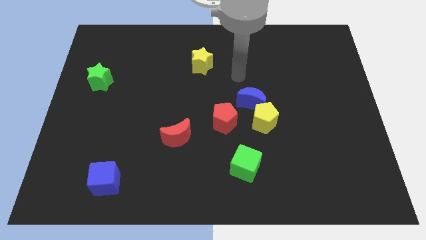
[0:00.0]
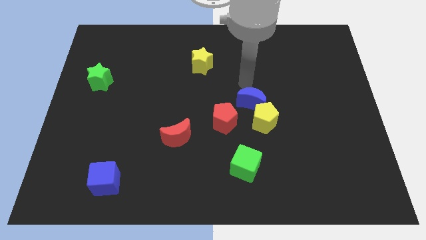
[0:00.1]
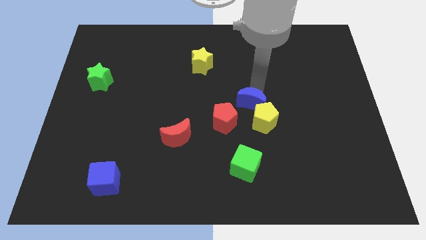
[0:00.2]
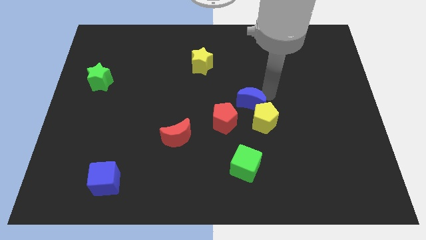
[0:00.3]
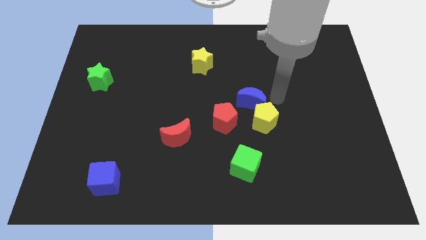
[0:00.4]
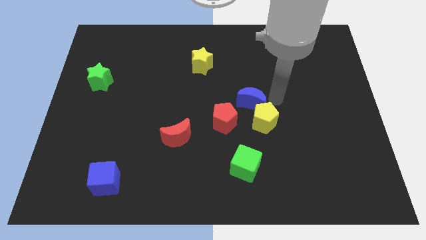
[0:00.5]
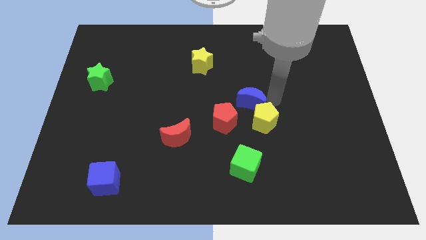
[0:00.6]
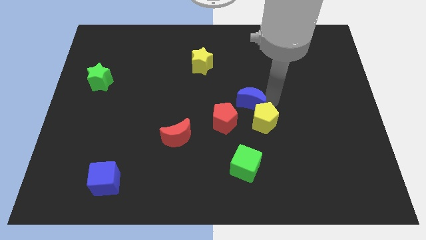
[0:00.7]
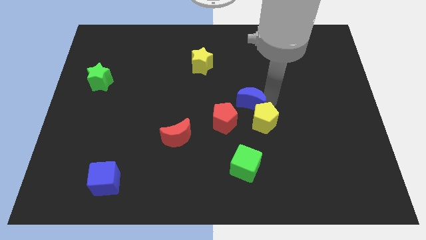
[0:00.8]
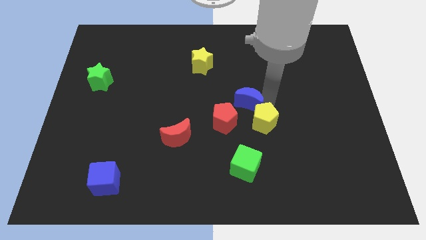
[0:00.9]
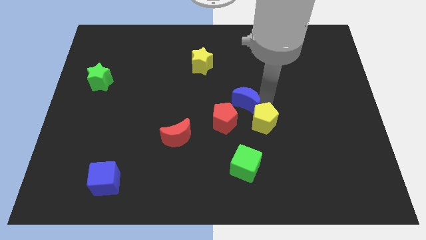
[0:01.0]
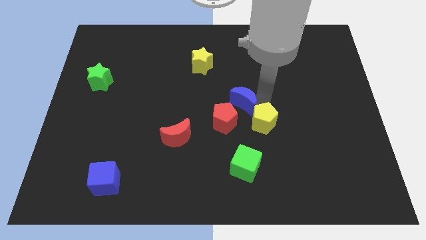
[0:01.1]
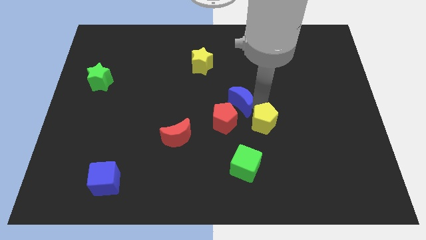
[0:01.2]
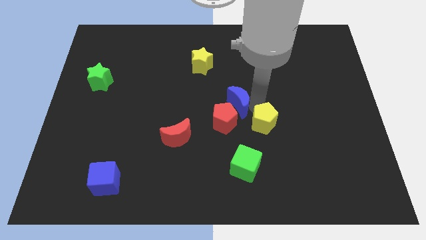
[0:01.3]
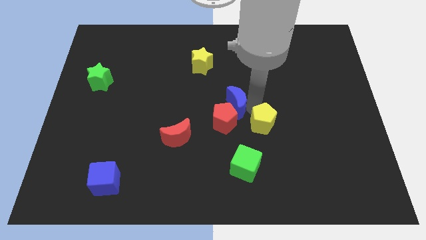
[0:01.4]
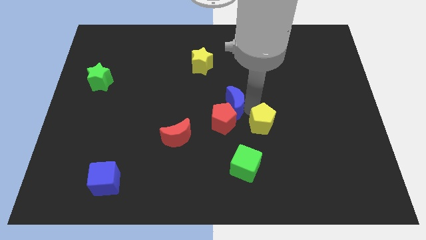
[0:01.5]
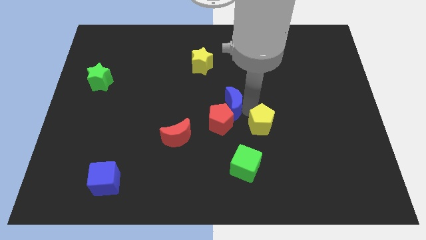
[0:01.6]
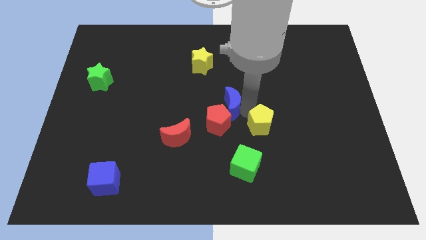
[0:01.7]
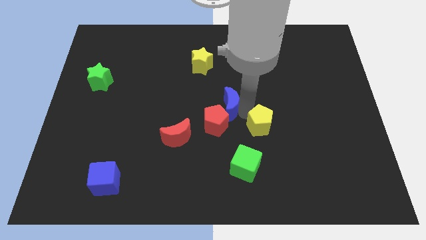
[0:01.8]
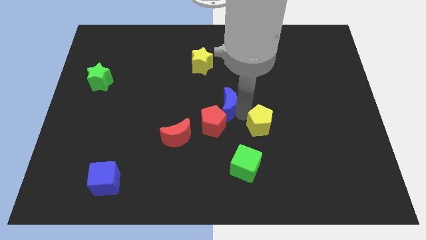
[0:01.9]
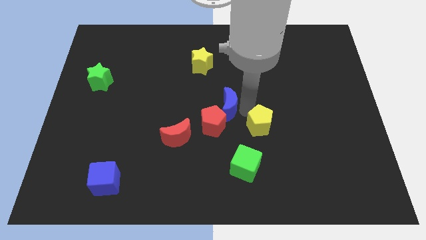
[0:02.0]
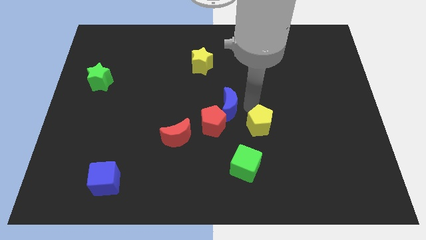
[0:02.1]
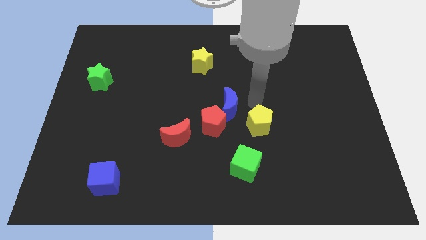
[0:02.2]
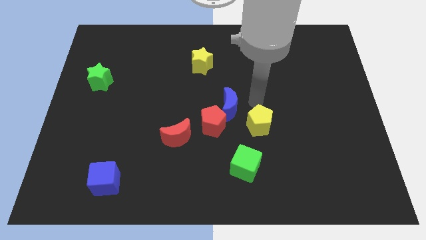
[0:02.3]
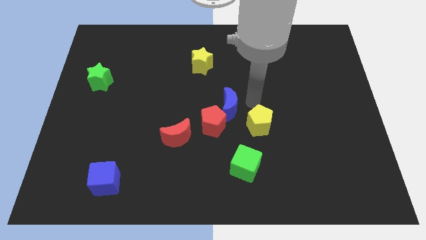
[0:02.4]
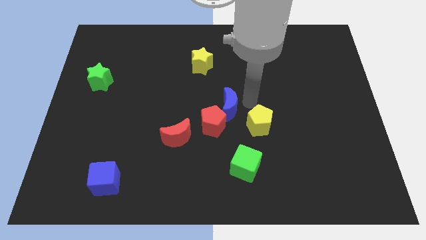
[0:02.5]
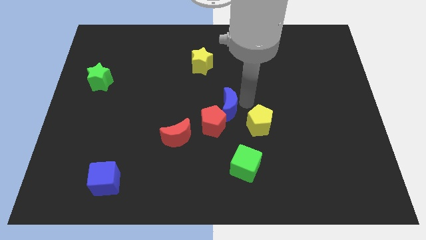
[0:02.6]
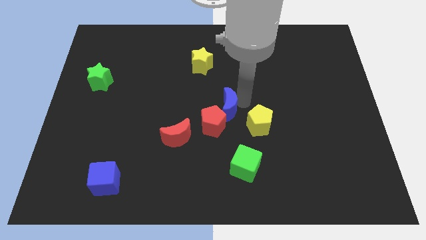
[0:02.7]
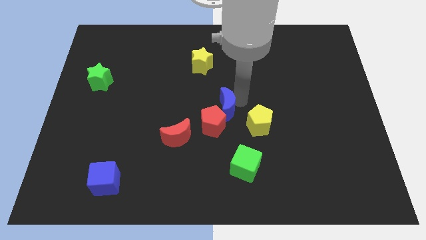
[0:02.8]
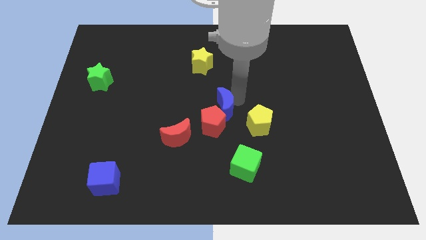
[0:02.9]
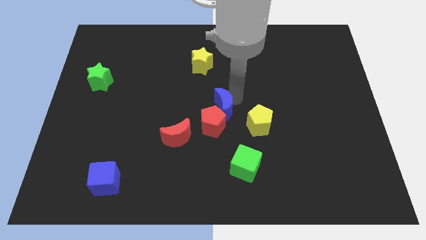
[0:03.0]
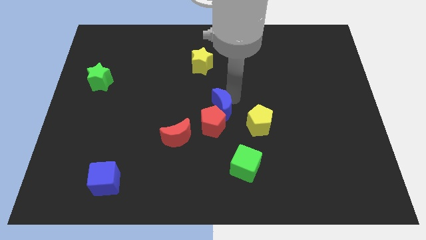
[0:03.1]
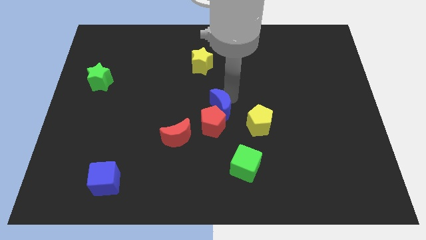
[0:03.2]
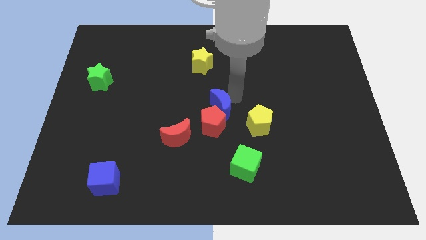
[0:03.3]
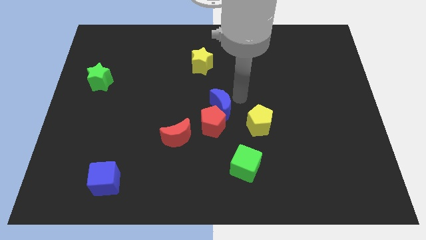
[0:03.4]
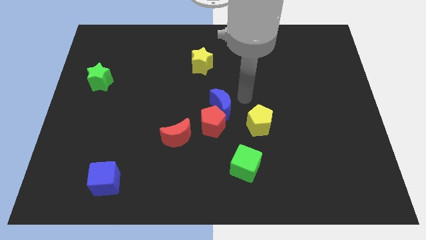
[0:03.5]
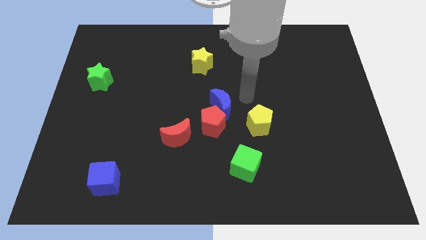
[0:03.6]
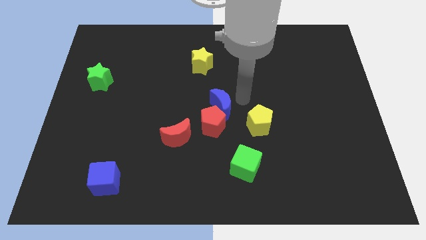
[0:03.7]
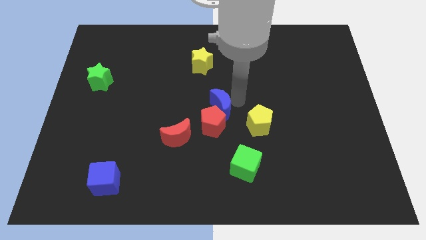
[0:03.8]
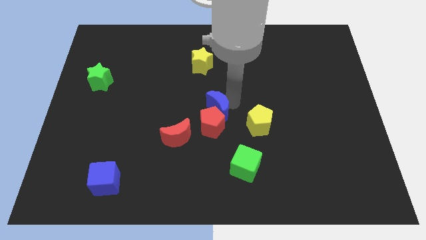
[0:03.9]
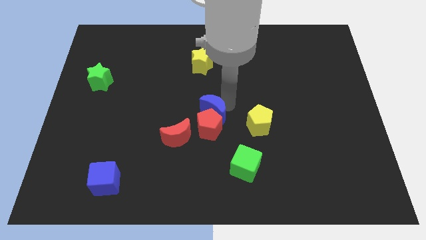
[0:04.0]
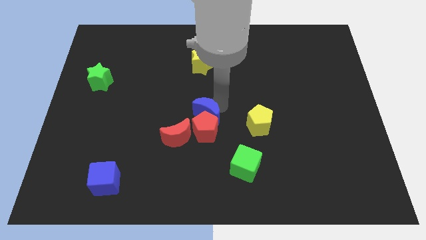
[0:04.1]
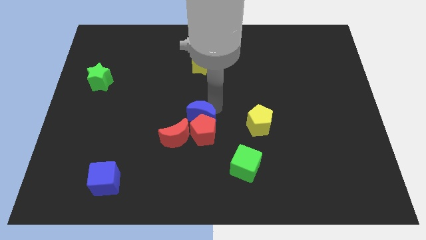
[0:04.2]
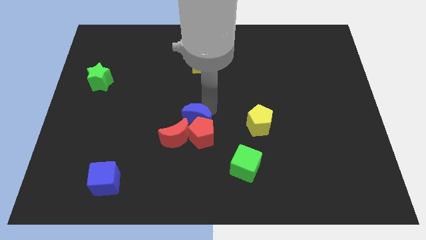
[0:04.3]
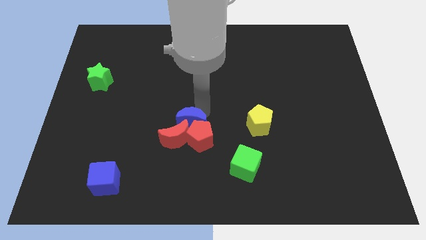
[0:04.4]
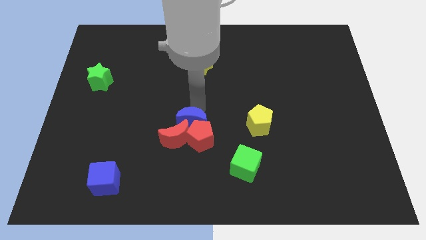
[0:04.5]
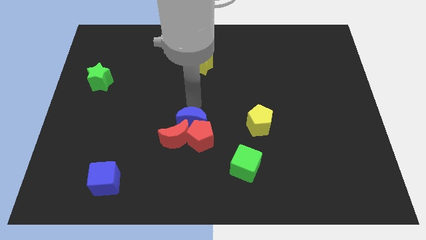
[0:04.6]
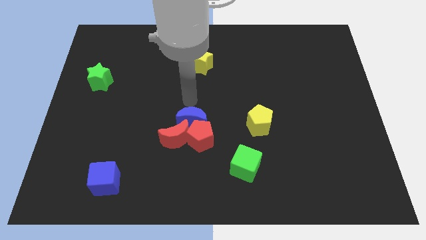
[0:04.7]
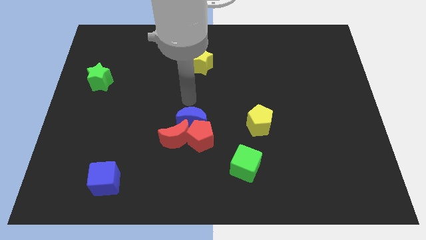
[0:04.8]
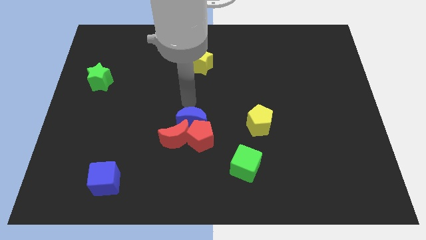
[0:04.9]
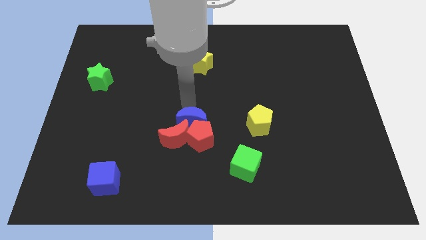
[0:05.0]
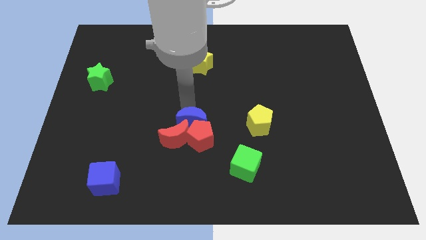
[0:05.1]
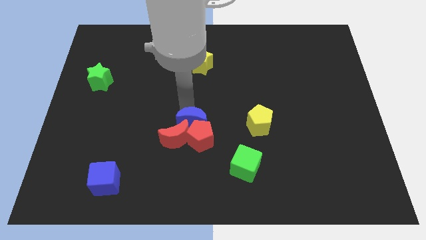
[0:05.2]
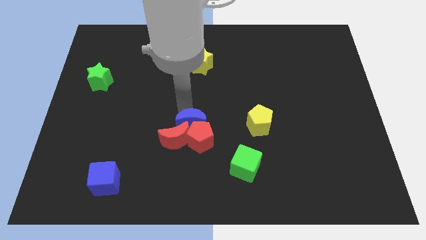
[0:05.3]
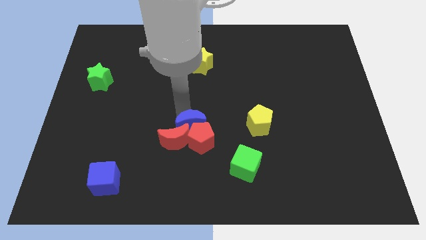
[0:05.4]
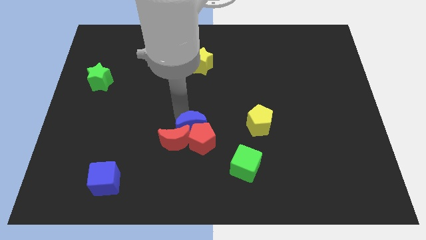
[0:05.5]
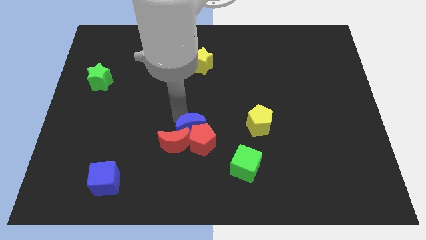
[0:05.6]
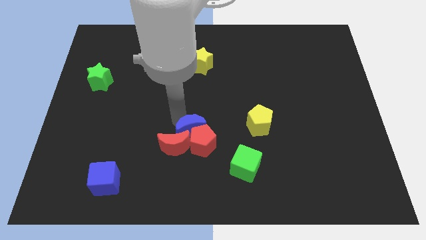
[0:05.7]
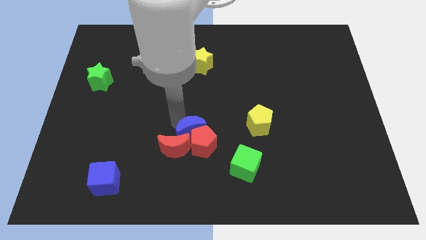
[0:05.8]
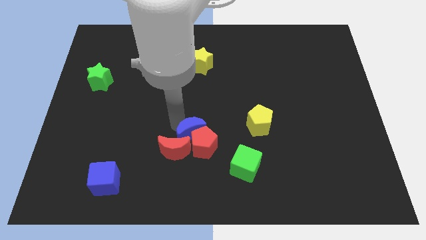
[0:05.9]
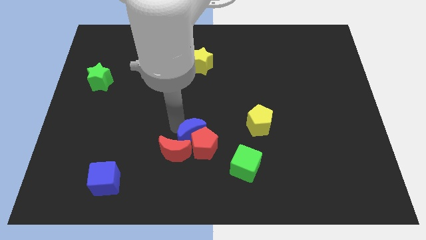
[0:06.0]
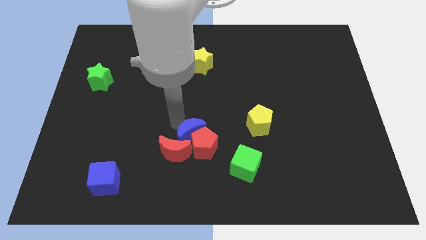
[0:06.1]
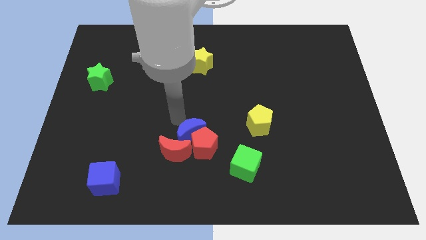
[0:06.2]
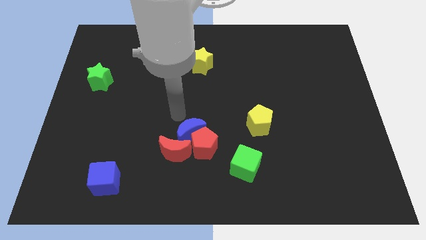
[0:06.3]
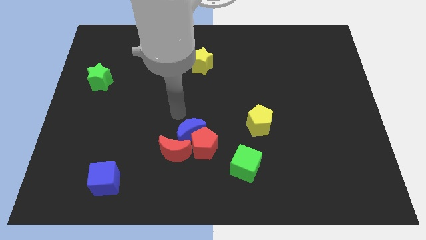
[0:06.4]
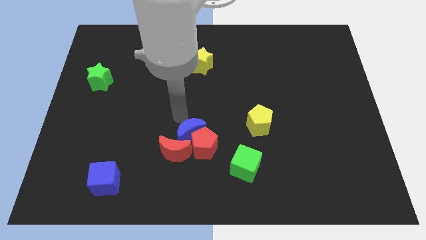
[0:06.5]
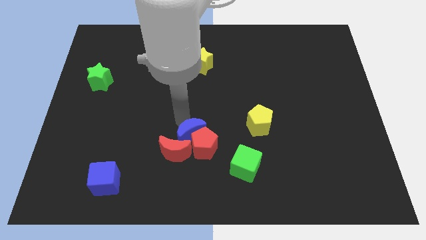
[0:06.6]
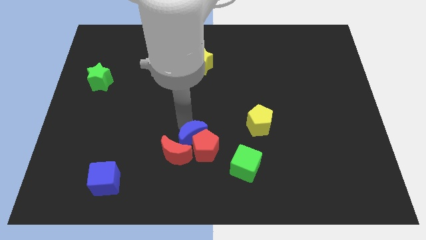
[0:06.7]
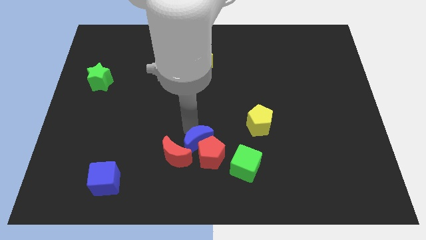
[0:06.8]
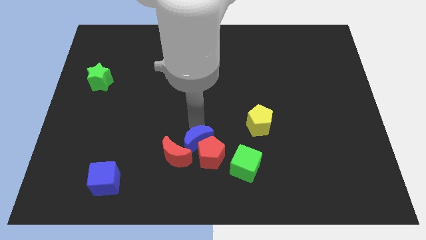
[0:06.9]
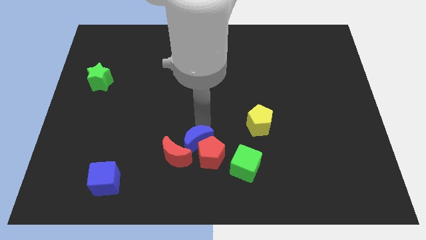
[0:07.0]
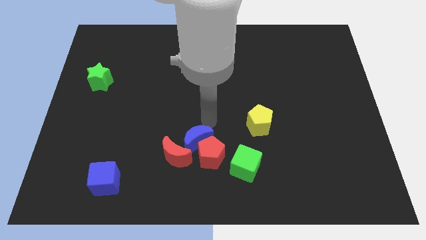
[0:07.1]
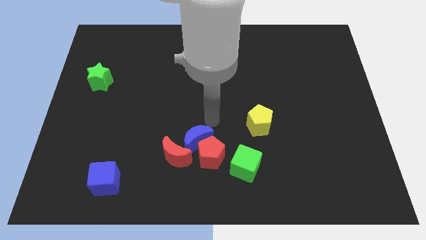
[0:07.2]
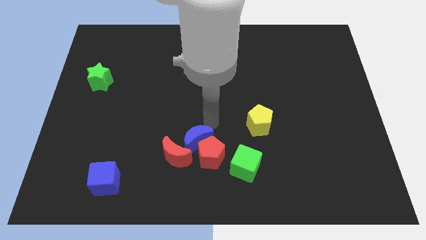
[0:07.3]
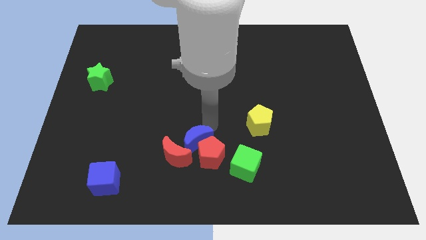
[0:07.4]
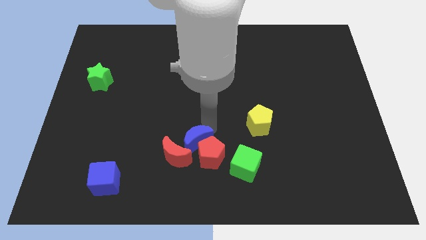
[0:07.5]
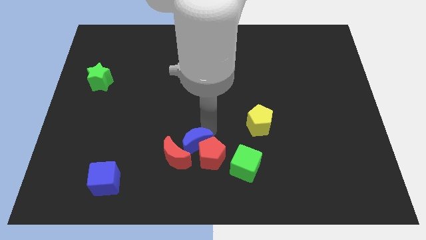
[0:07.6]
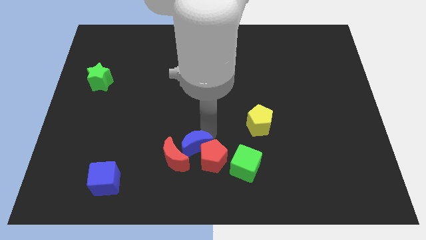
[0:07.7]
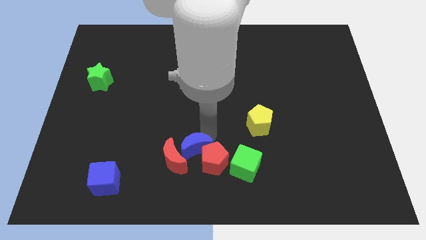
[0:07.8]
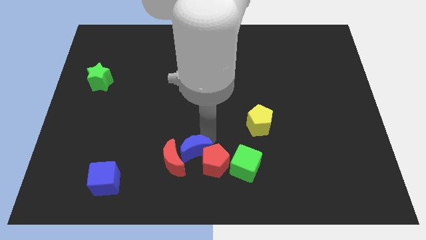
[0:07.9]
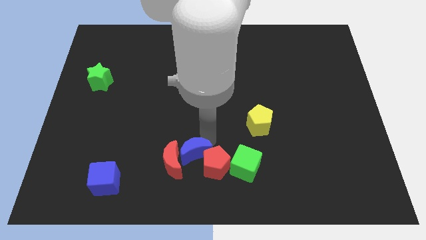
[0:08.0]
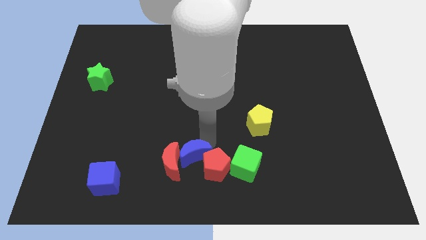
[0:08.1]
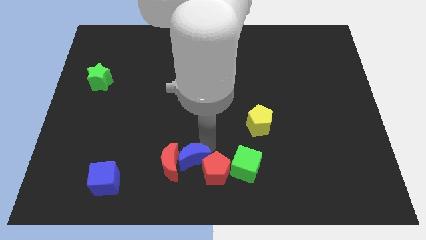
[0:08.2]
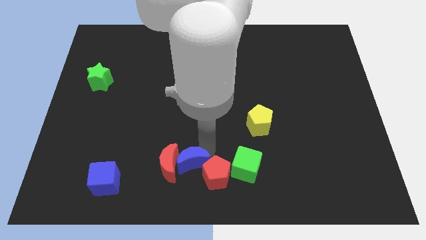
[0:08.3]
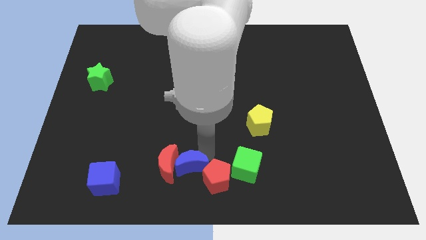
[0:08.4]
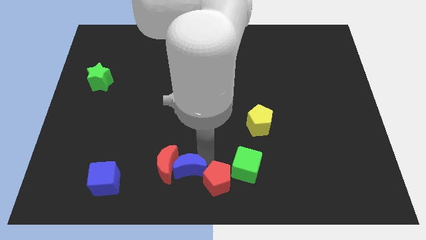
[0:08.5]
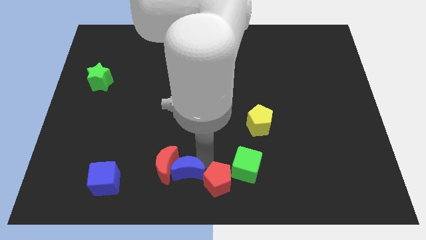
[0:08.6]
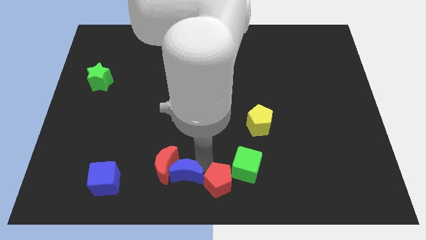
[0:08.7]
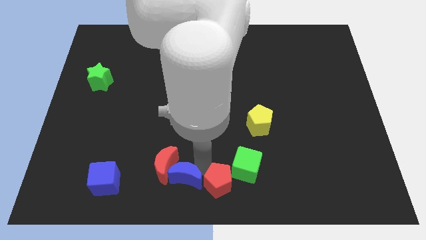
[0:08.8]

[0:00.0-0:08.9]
put the blue moon to the right of the blue cube
